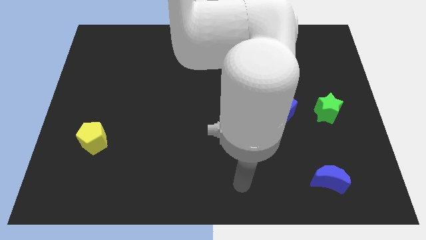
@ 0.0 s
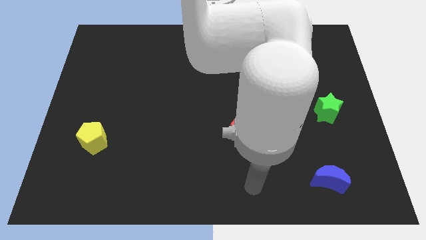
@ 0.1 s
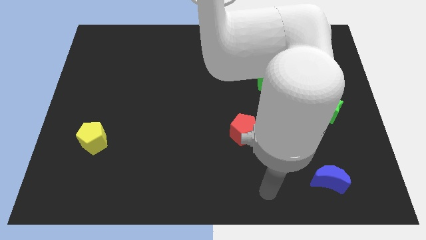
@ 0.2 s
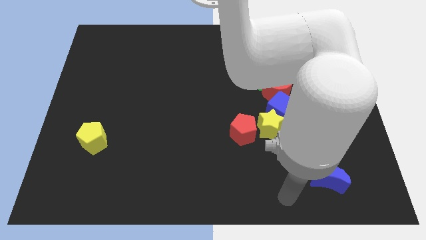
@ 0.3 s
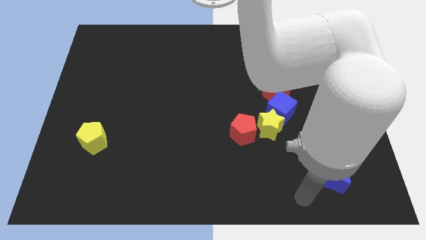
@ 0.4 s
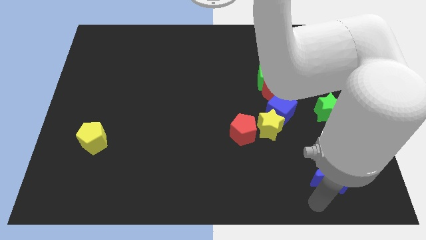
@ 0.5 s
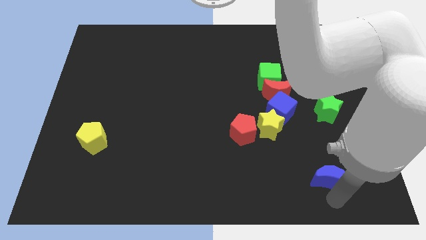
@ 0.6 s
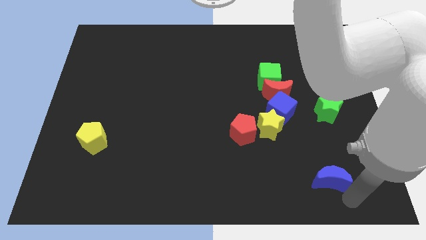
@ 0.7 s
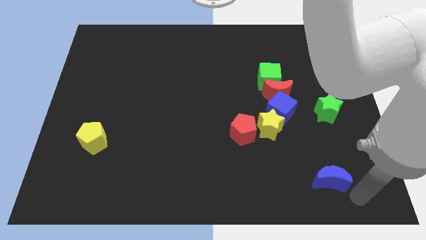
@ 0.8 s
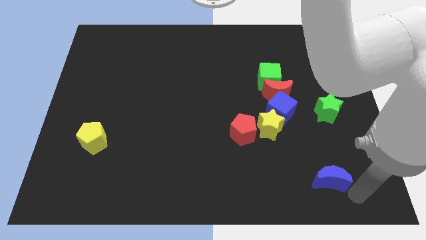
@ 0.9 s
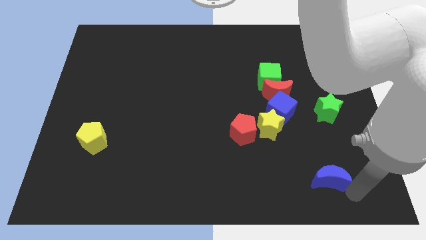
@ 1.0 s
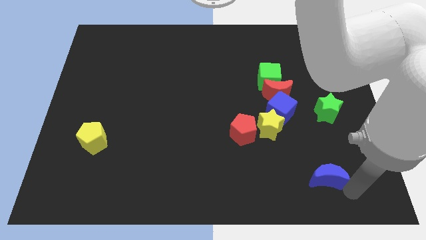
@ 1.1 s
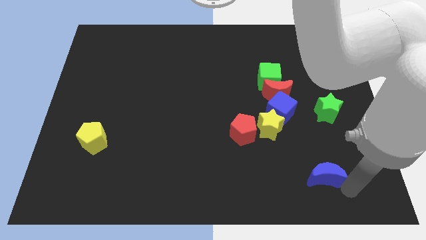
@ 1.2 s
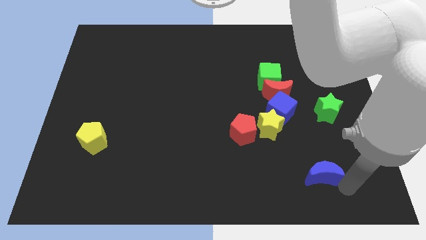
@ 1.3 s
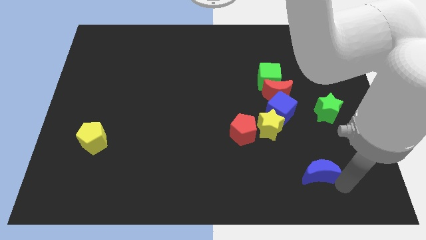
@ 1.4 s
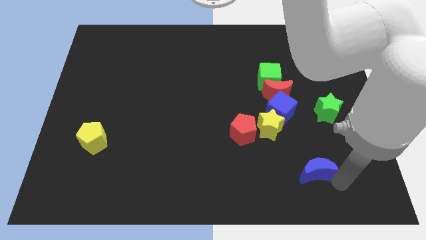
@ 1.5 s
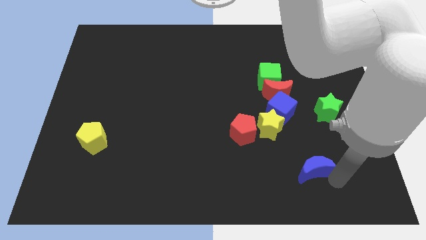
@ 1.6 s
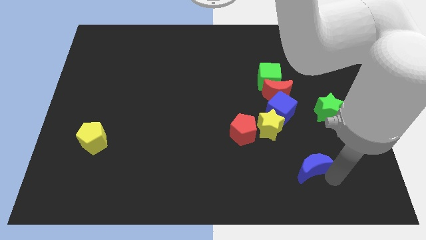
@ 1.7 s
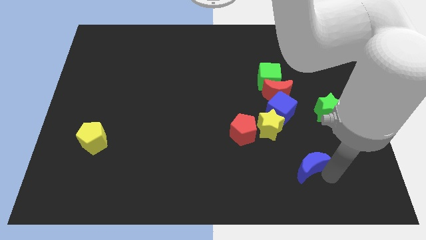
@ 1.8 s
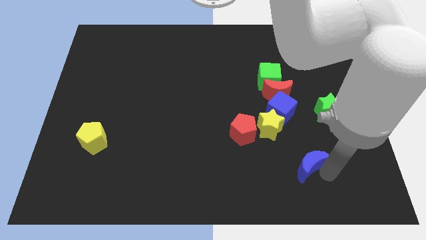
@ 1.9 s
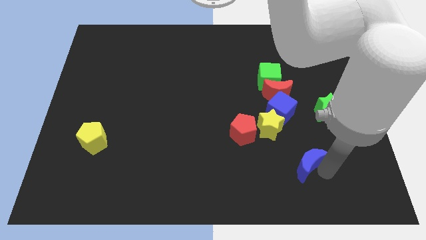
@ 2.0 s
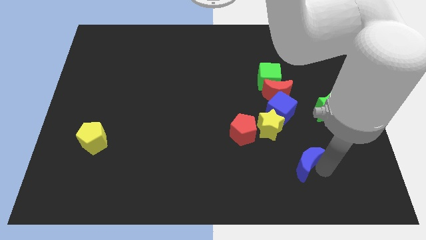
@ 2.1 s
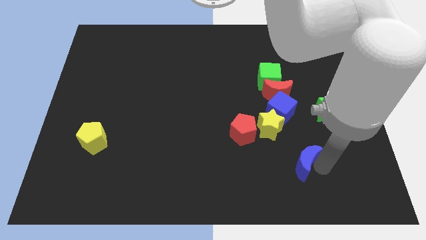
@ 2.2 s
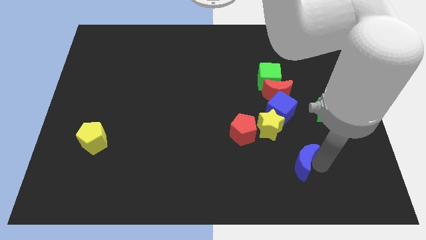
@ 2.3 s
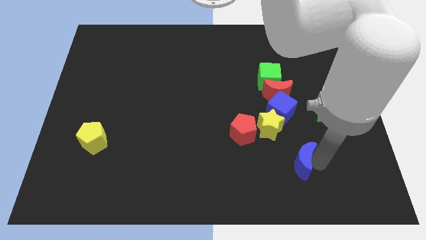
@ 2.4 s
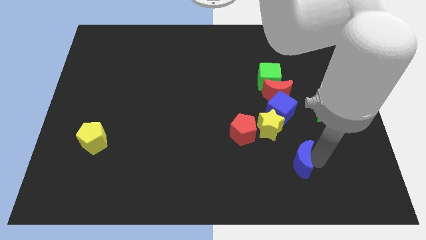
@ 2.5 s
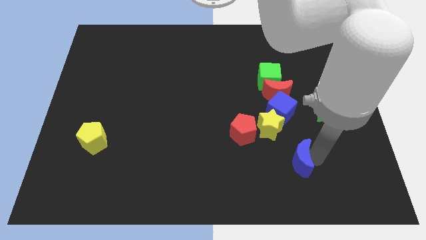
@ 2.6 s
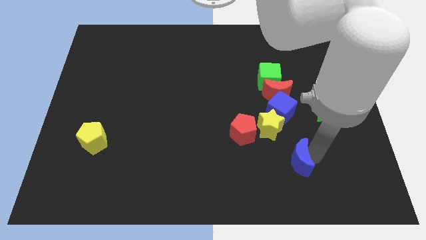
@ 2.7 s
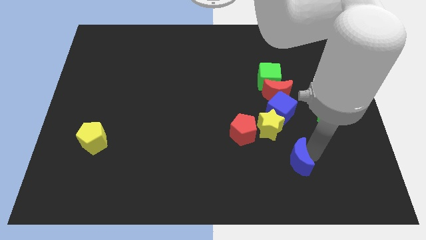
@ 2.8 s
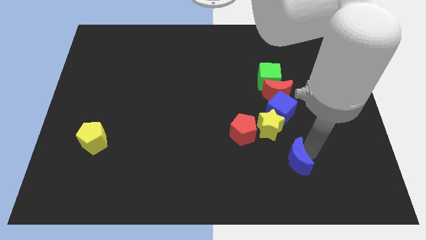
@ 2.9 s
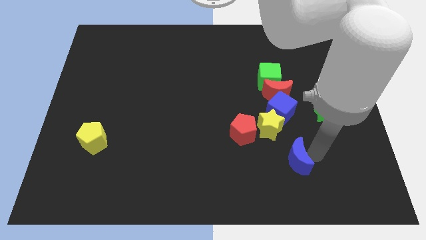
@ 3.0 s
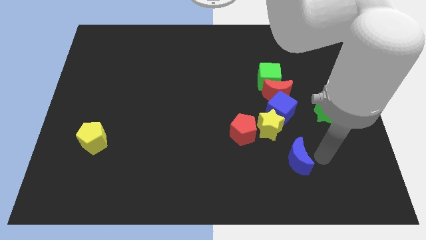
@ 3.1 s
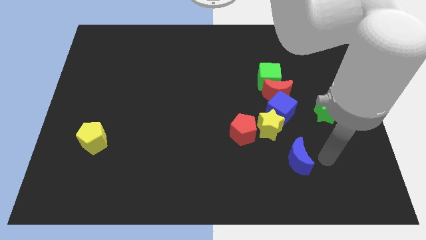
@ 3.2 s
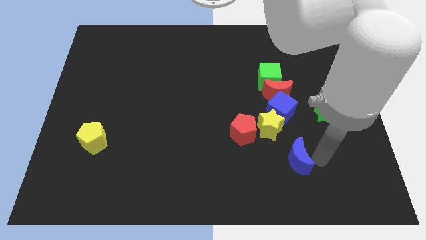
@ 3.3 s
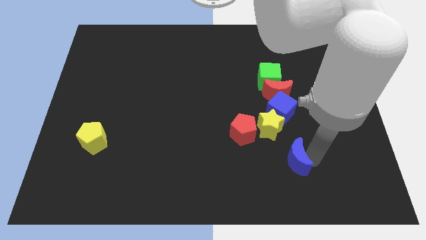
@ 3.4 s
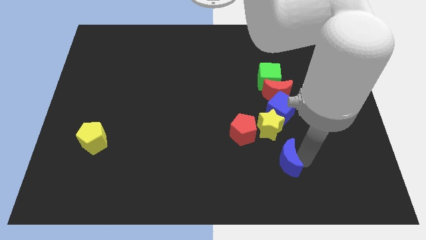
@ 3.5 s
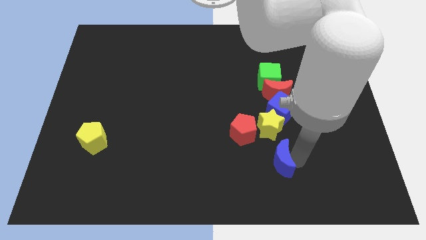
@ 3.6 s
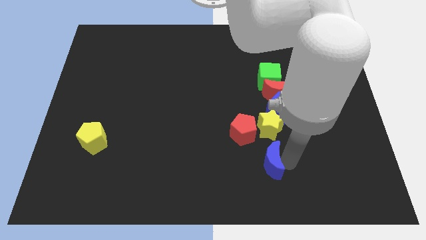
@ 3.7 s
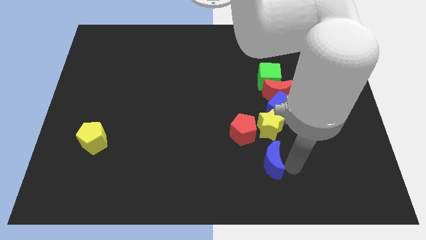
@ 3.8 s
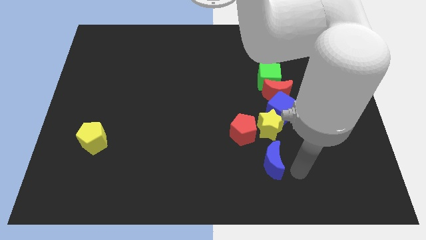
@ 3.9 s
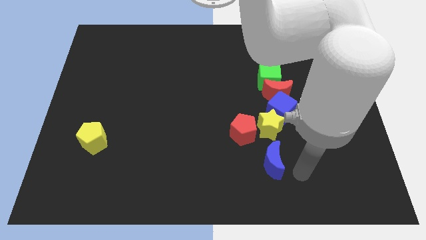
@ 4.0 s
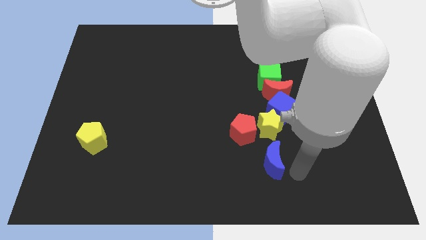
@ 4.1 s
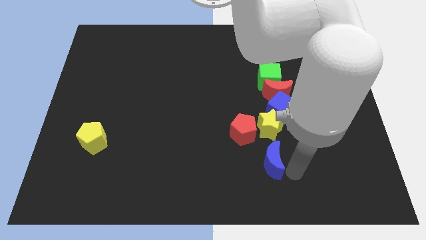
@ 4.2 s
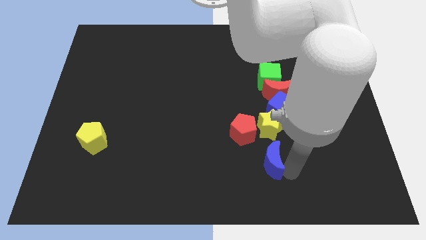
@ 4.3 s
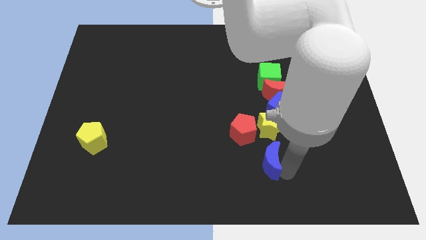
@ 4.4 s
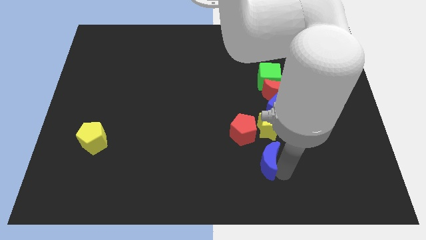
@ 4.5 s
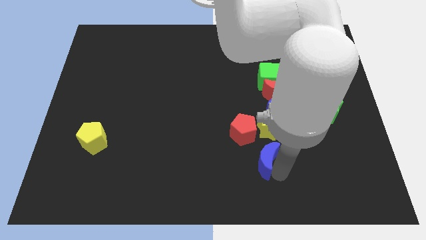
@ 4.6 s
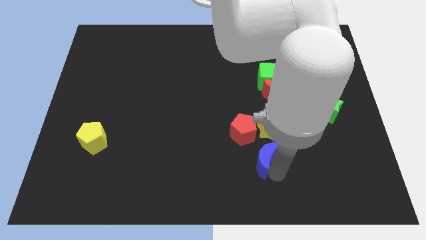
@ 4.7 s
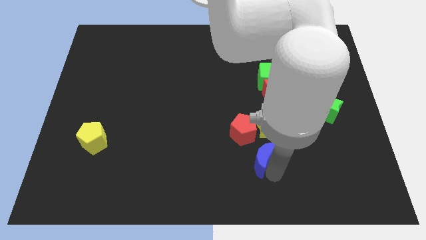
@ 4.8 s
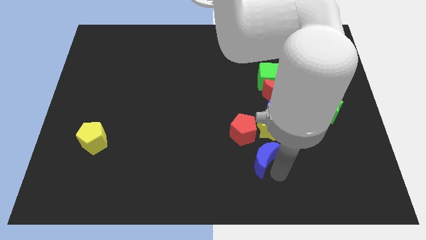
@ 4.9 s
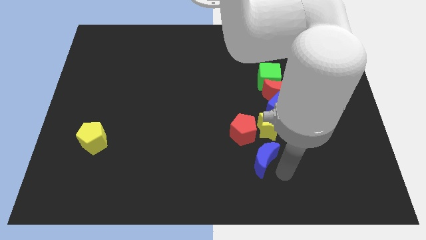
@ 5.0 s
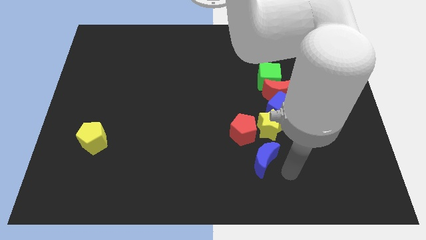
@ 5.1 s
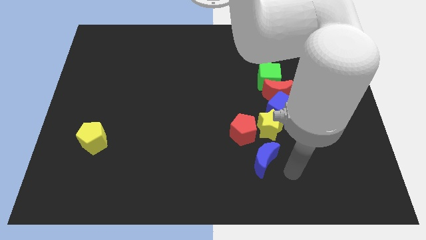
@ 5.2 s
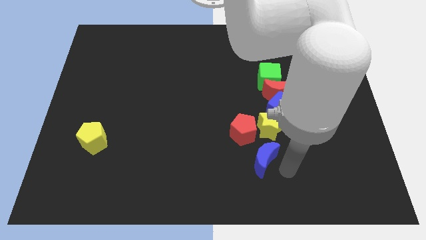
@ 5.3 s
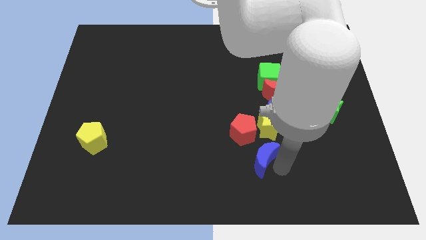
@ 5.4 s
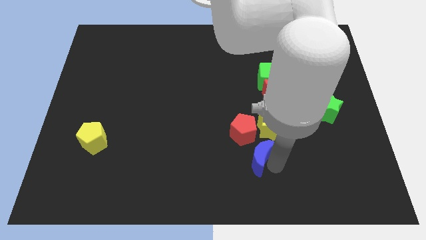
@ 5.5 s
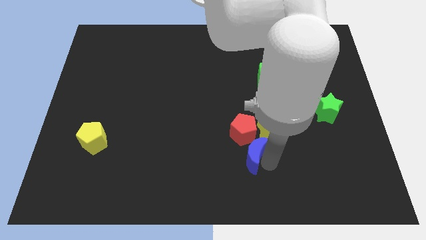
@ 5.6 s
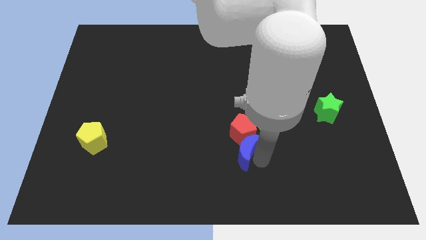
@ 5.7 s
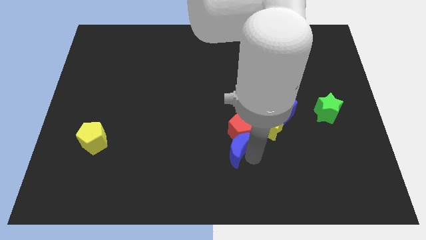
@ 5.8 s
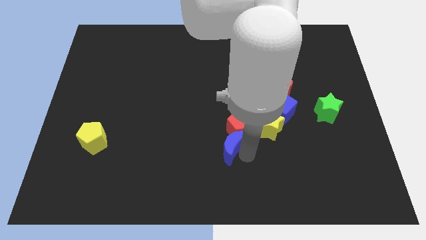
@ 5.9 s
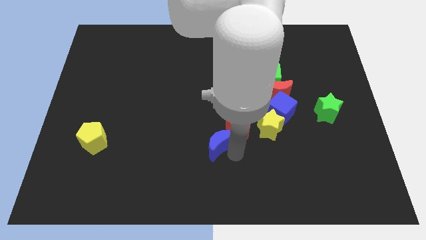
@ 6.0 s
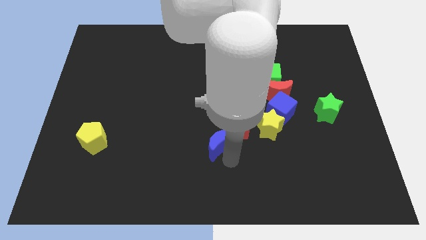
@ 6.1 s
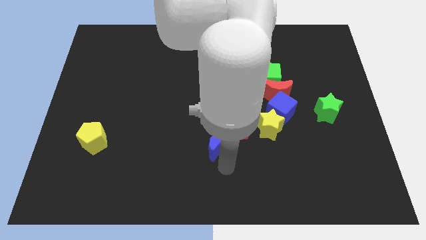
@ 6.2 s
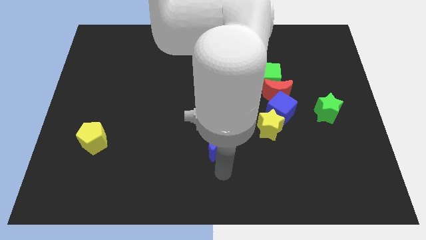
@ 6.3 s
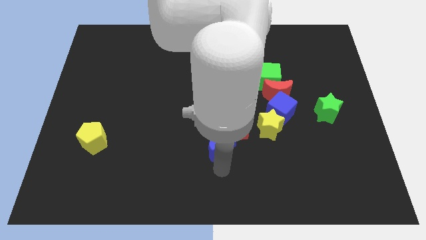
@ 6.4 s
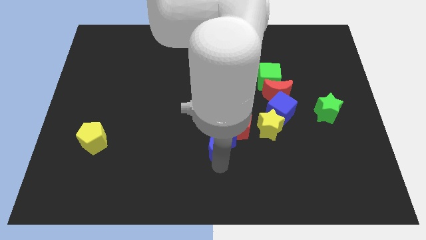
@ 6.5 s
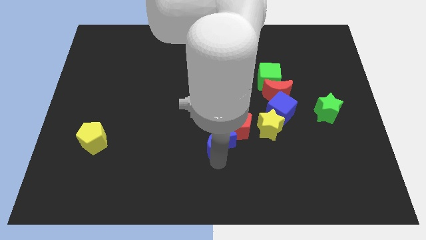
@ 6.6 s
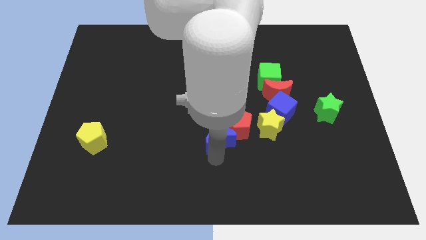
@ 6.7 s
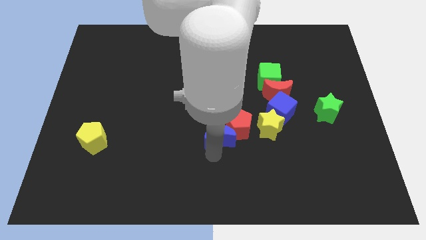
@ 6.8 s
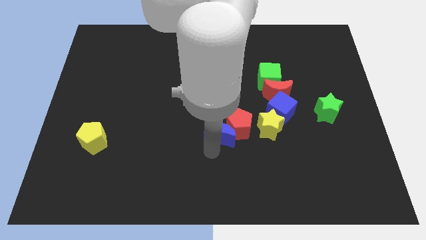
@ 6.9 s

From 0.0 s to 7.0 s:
push the blue moon upwards and to the left

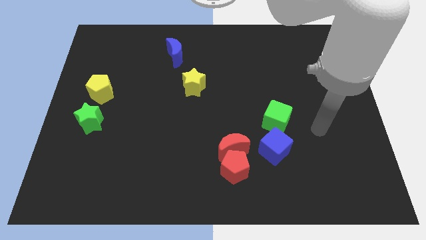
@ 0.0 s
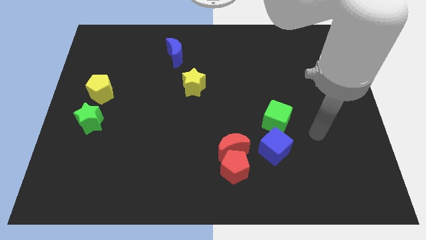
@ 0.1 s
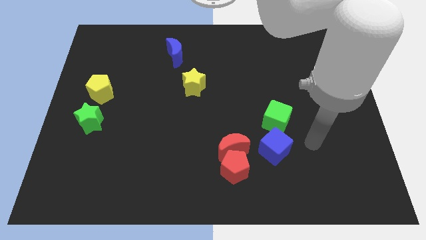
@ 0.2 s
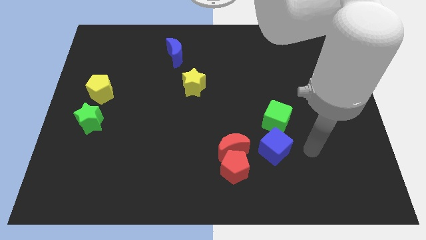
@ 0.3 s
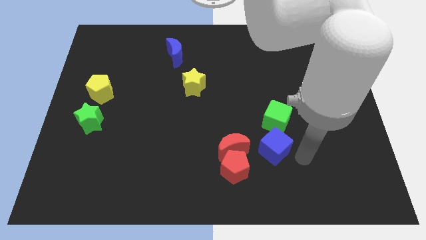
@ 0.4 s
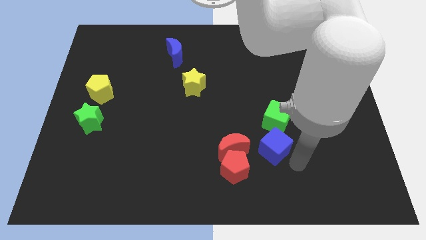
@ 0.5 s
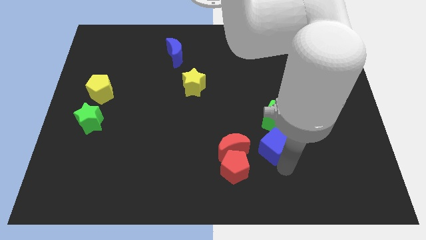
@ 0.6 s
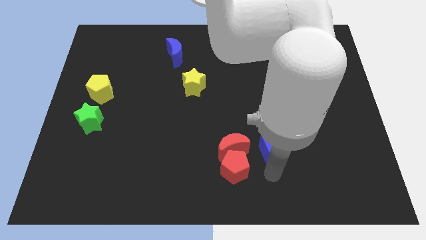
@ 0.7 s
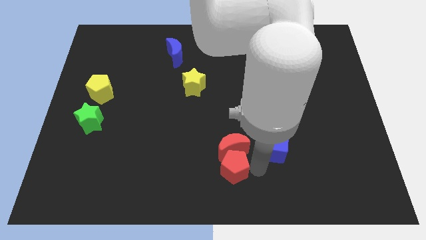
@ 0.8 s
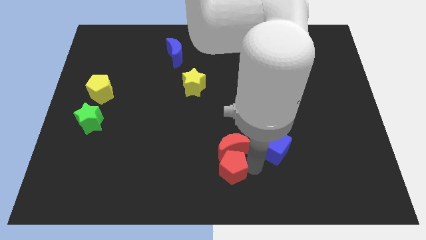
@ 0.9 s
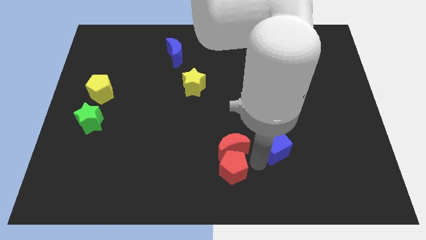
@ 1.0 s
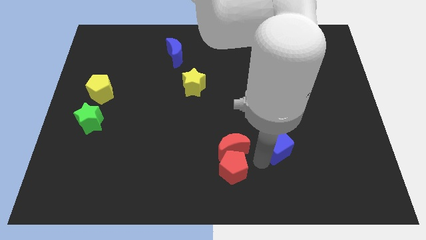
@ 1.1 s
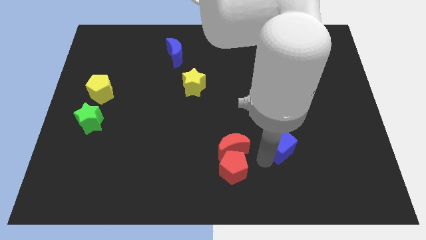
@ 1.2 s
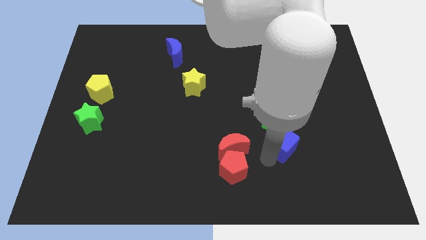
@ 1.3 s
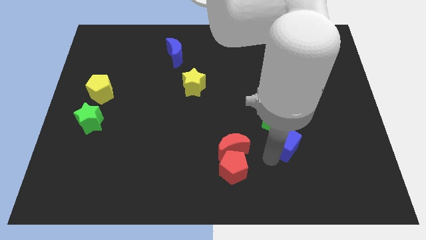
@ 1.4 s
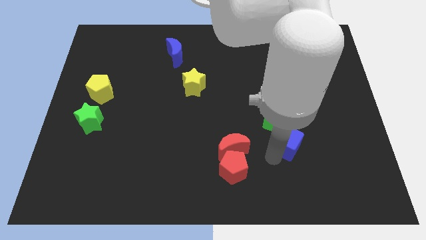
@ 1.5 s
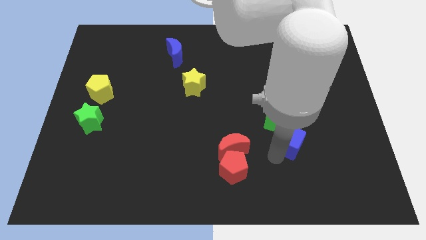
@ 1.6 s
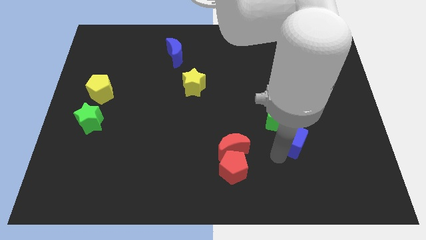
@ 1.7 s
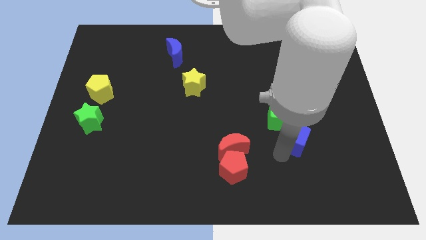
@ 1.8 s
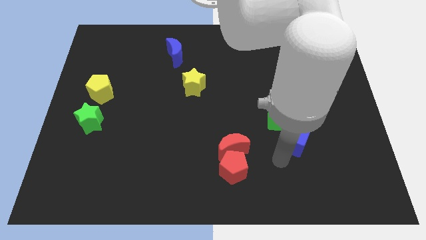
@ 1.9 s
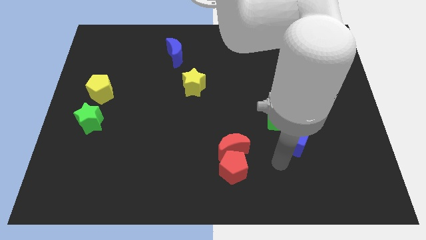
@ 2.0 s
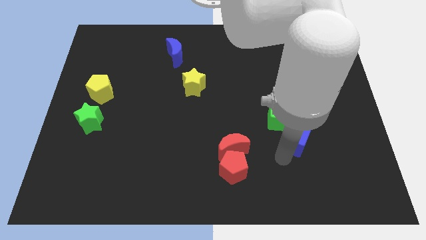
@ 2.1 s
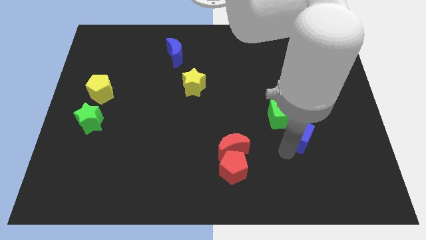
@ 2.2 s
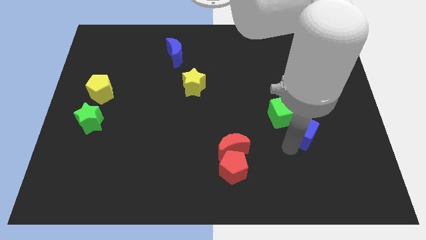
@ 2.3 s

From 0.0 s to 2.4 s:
push the blue cube a bit up and then to the right
